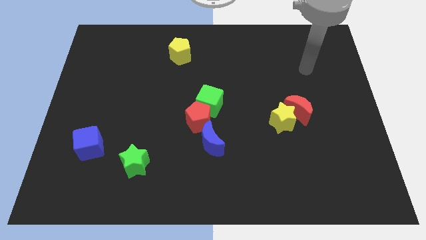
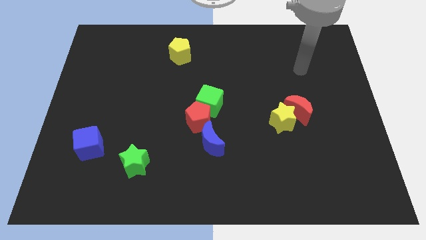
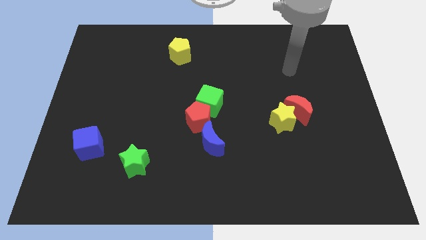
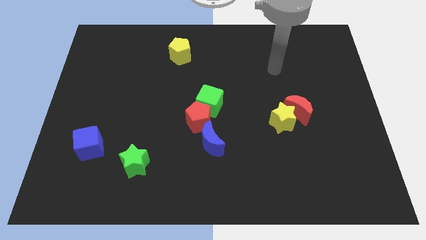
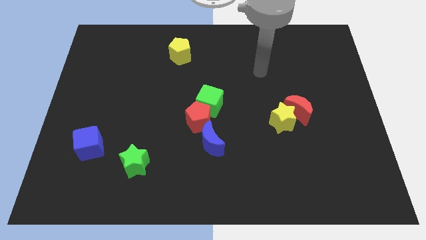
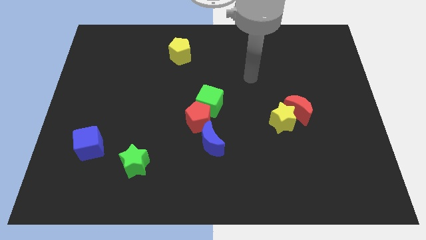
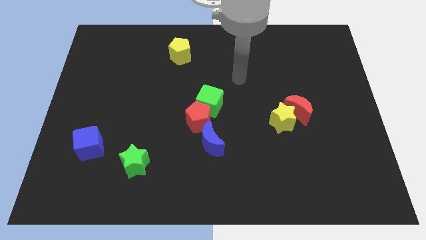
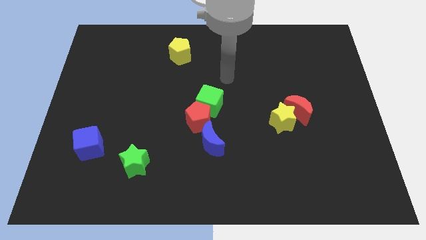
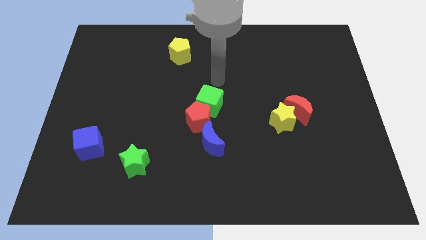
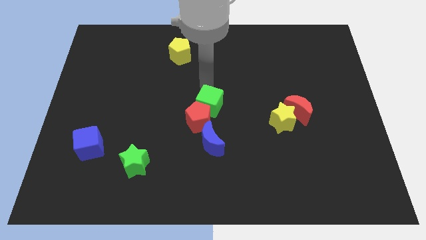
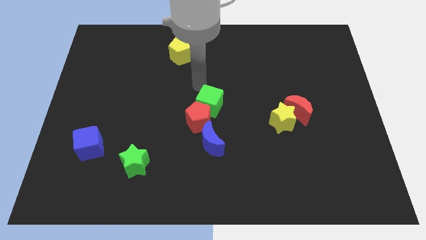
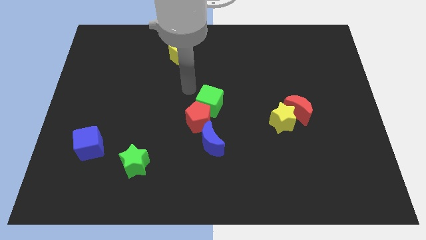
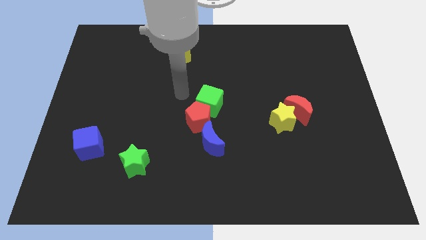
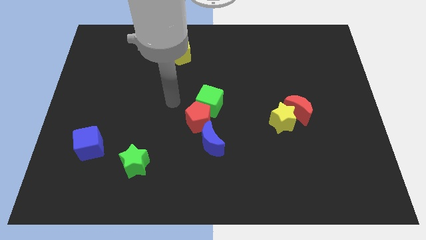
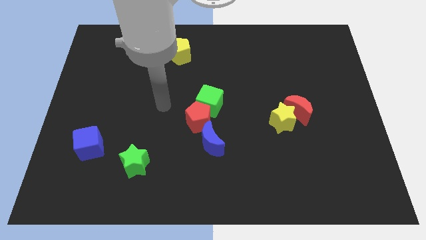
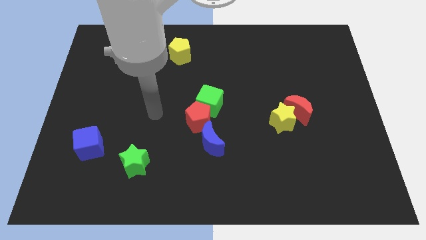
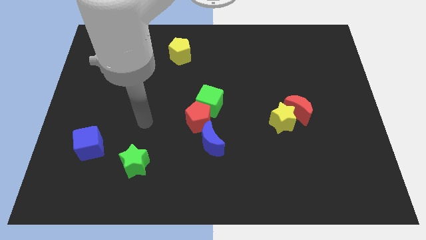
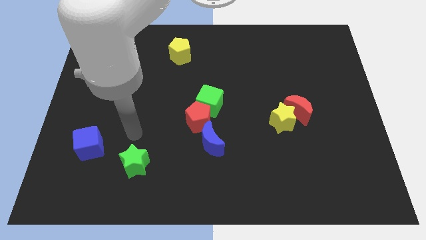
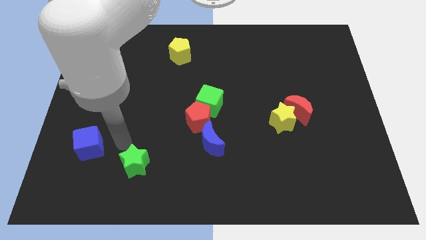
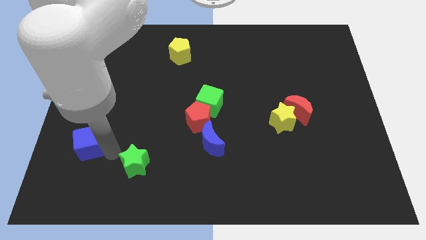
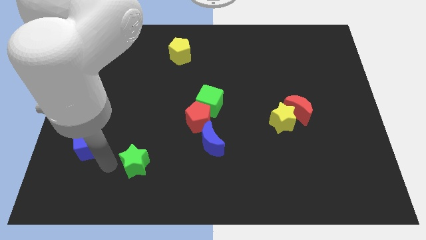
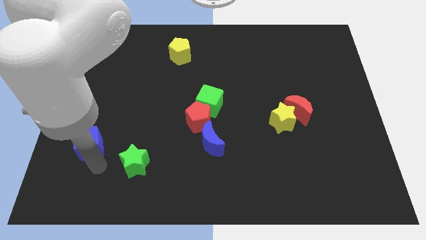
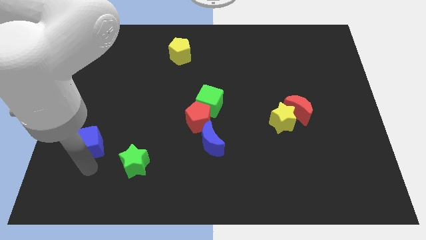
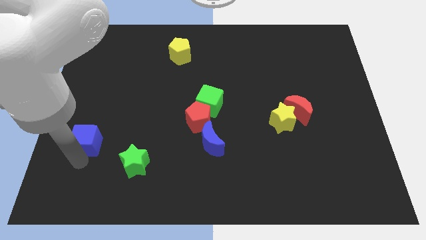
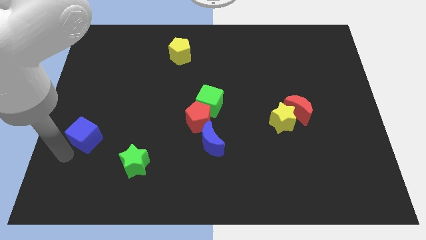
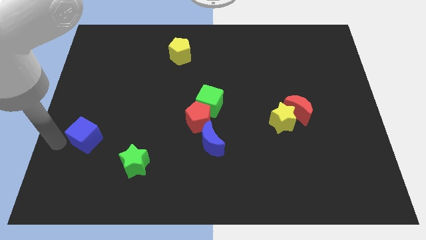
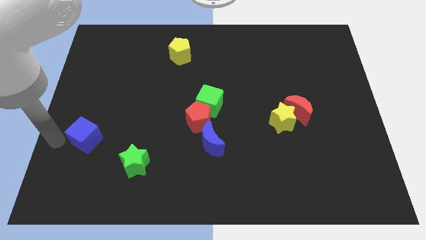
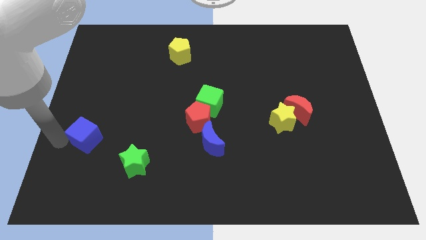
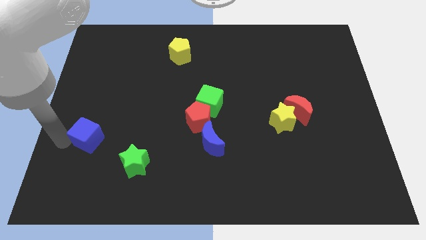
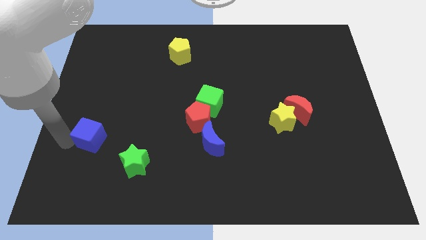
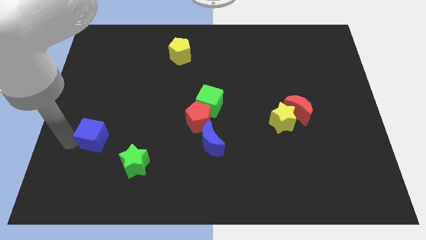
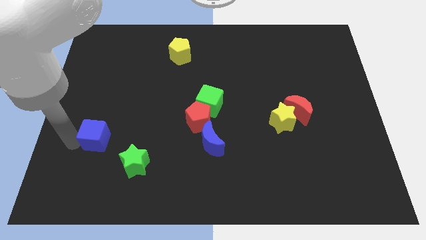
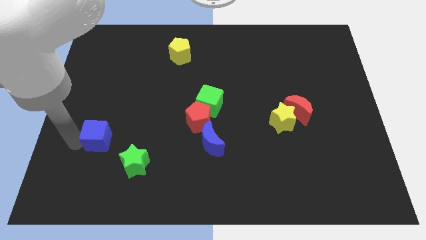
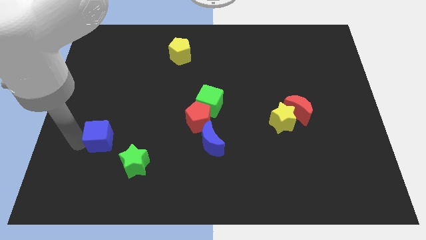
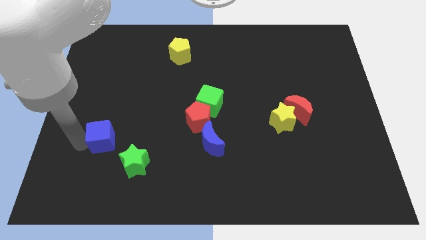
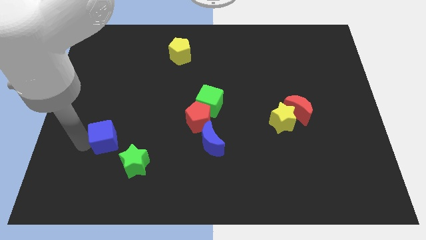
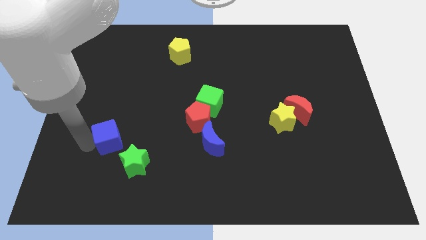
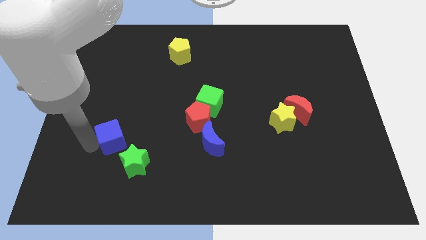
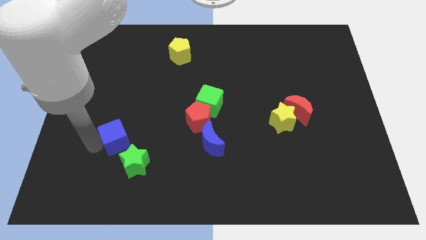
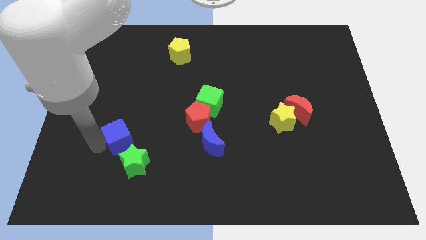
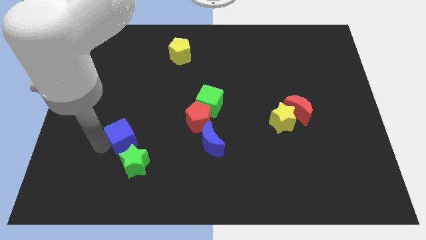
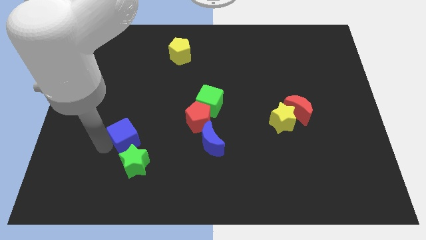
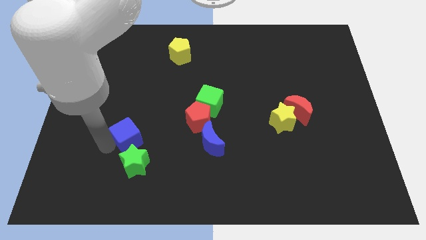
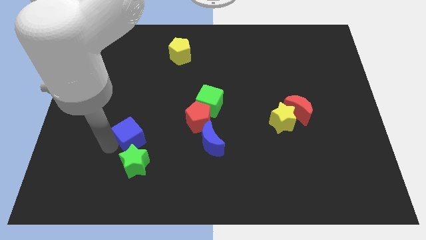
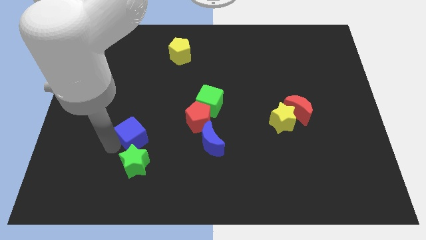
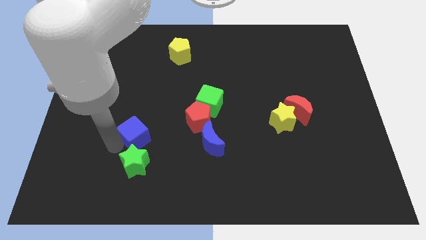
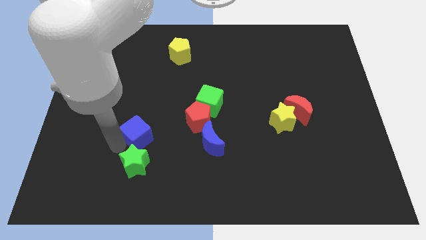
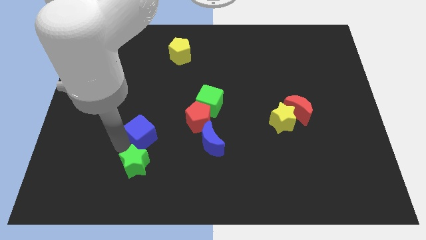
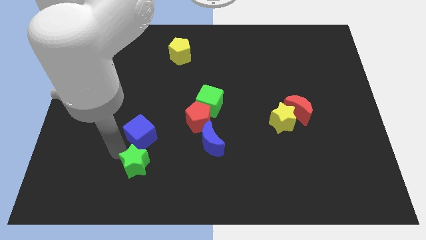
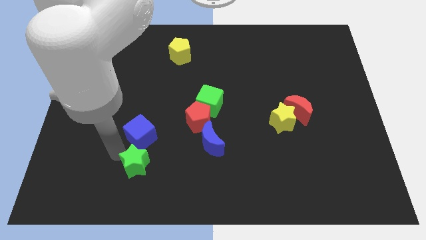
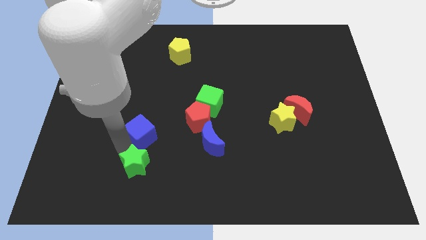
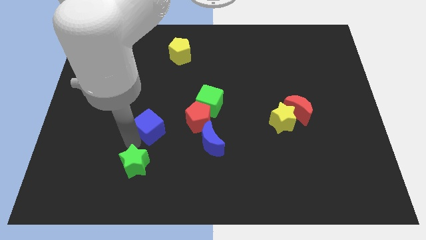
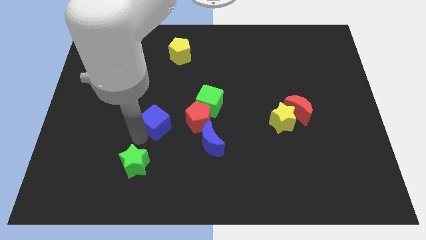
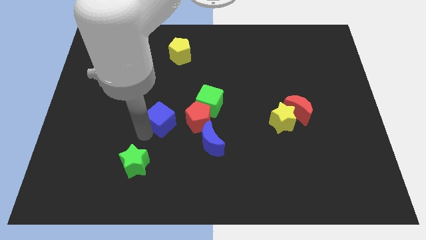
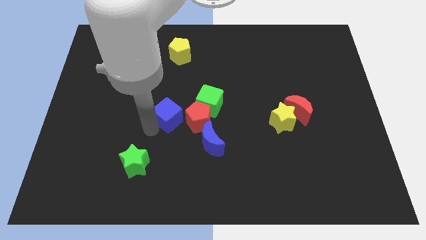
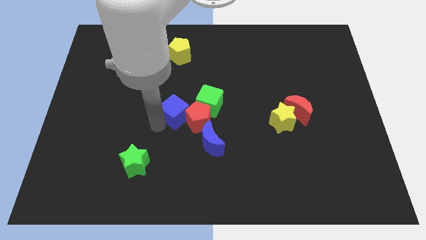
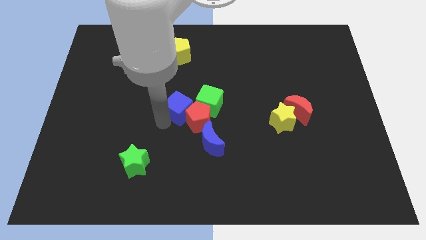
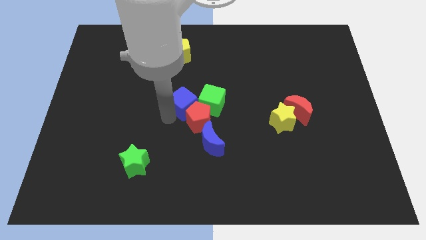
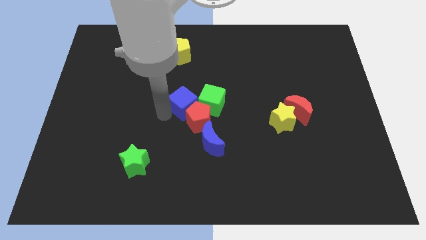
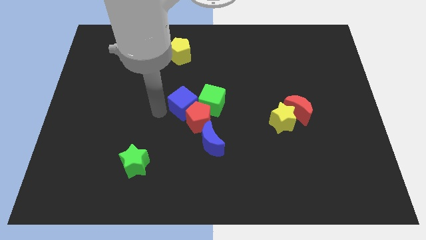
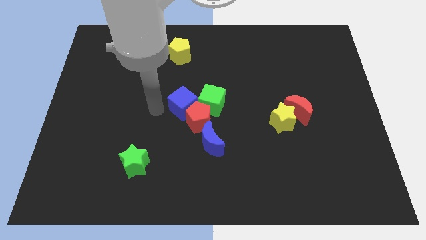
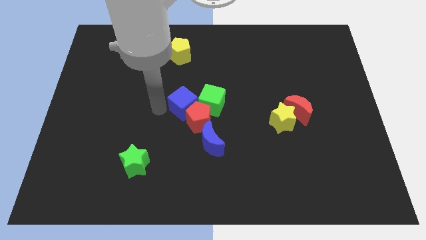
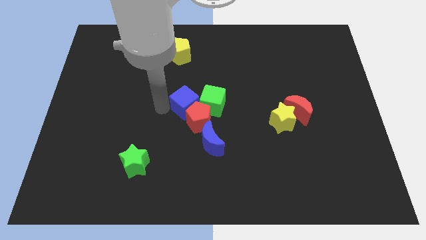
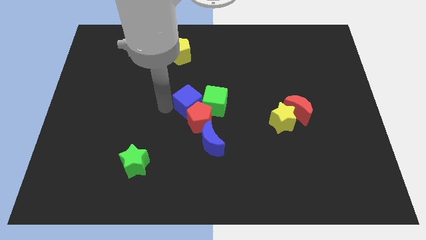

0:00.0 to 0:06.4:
slide the blue cube close to the green cube

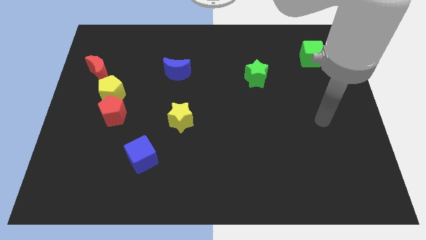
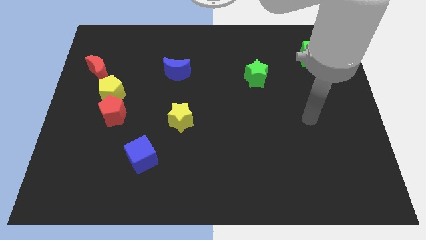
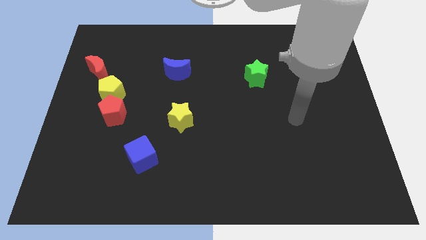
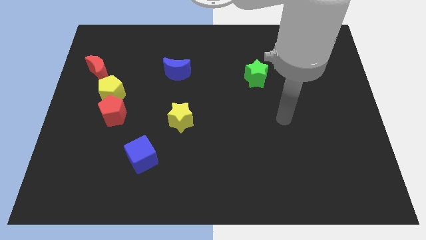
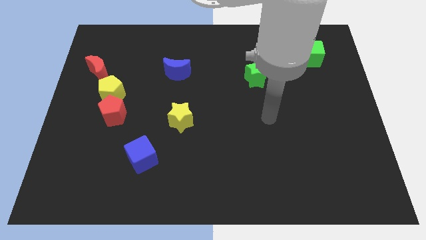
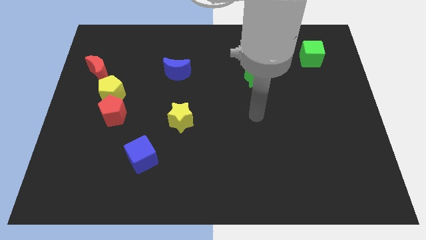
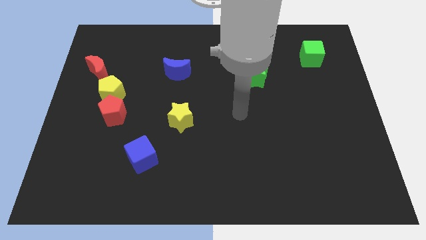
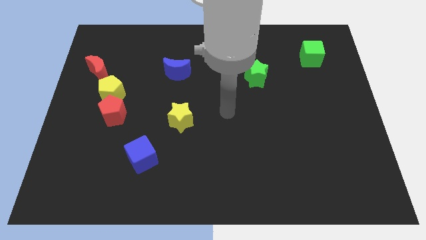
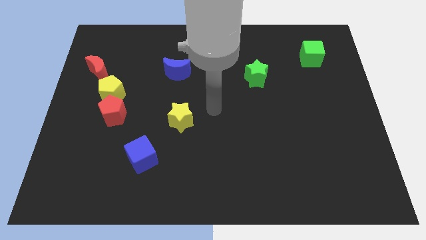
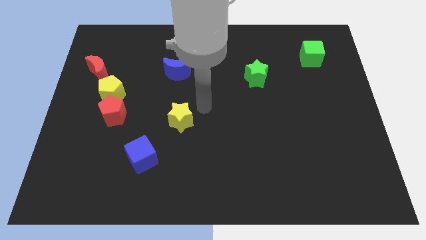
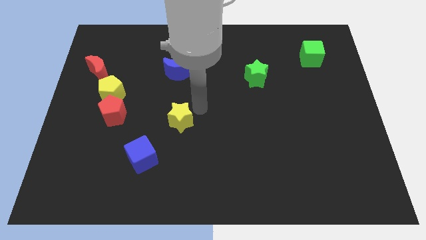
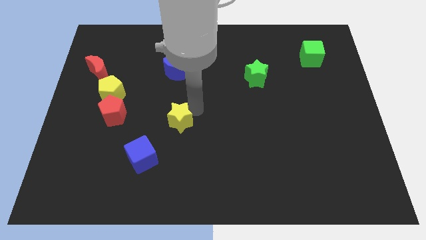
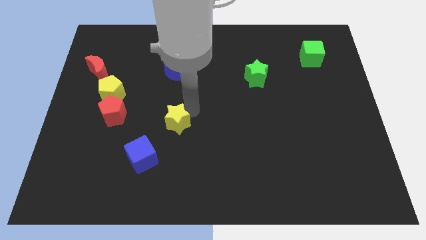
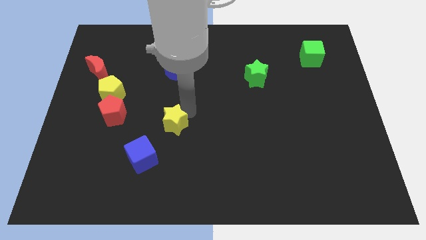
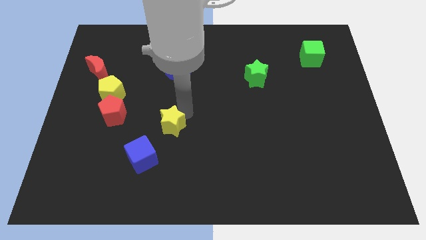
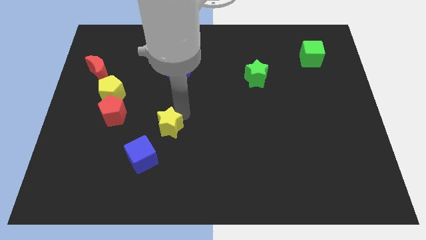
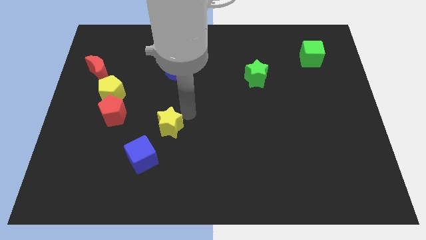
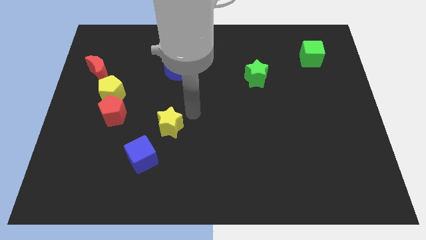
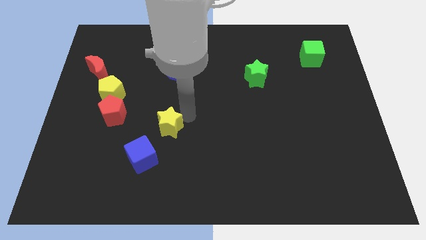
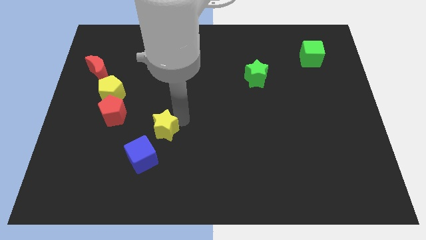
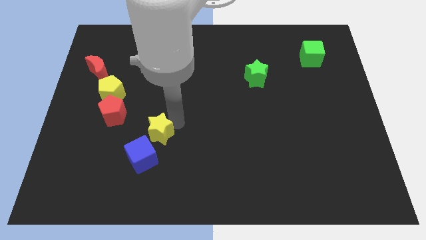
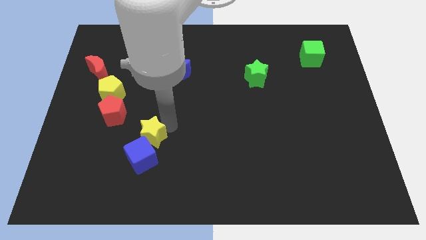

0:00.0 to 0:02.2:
put the yellow star towards the blue cube
